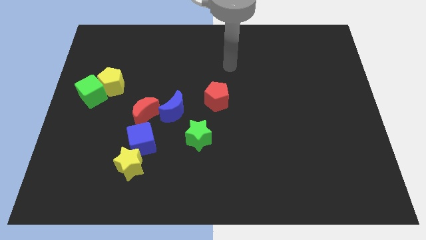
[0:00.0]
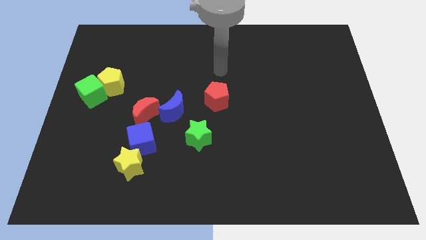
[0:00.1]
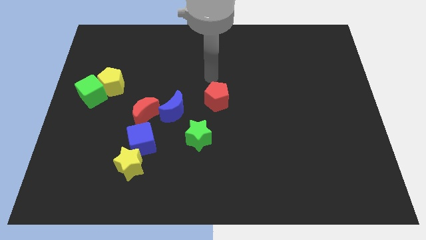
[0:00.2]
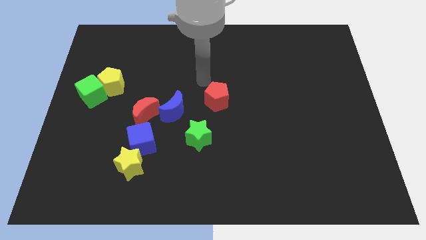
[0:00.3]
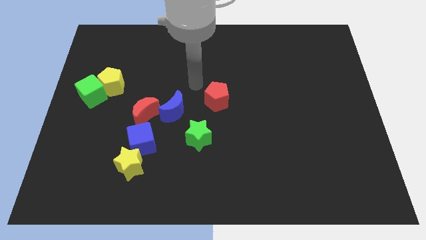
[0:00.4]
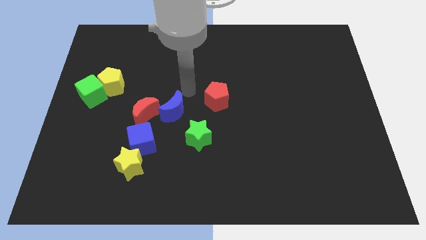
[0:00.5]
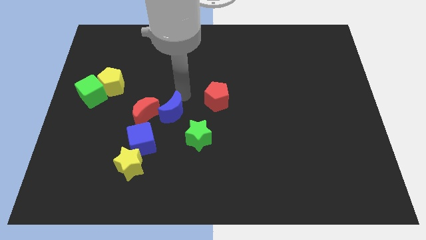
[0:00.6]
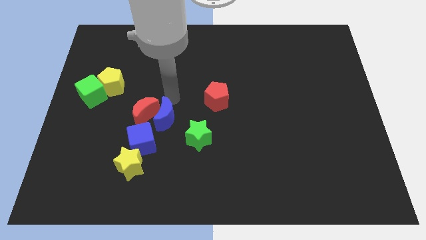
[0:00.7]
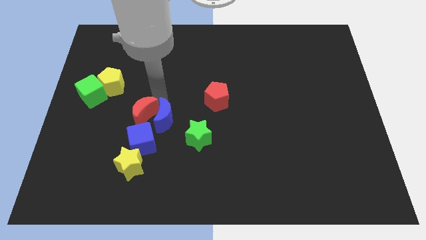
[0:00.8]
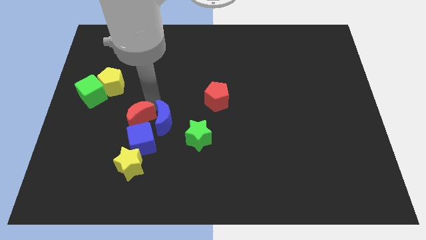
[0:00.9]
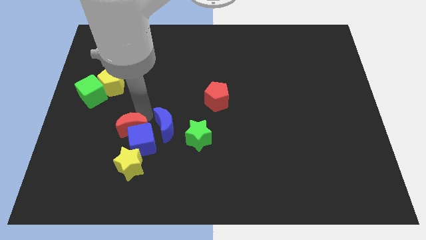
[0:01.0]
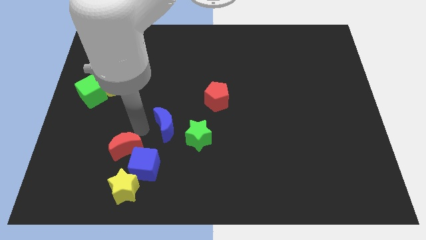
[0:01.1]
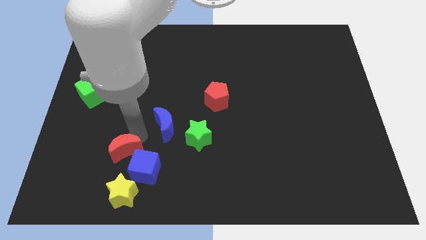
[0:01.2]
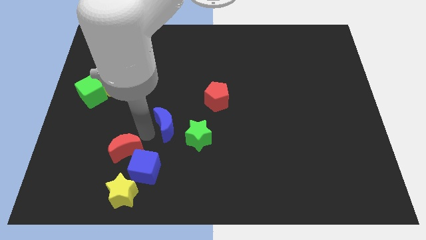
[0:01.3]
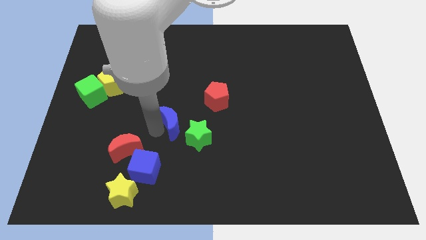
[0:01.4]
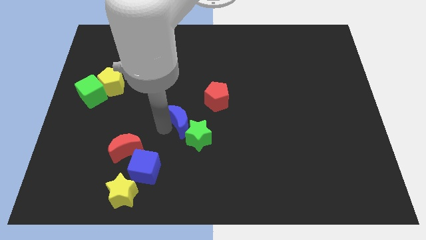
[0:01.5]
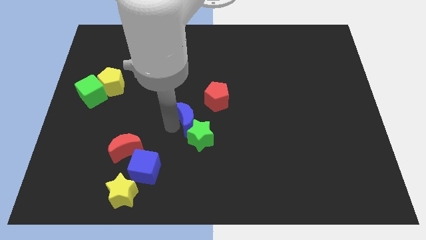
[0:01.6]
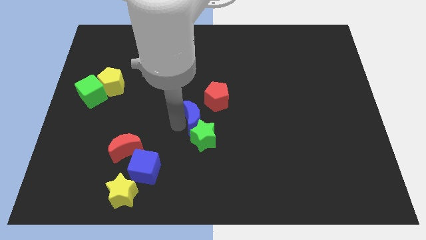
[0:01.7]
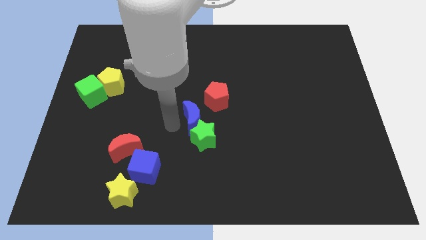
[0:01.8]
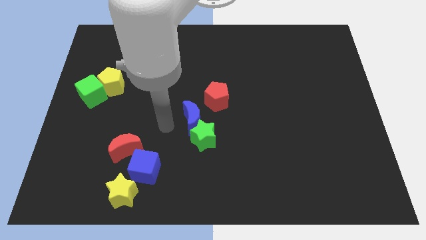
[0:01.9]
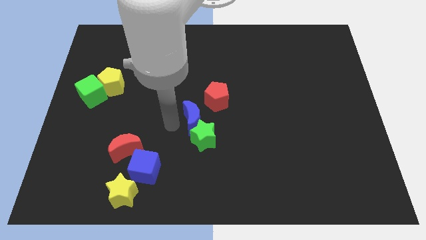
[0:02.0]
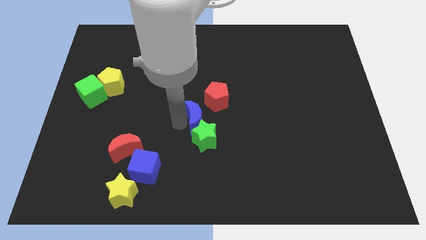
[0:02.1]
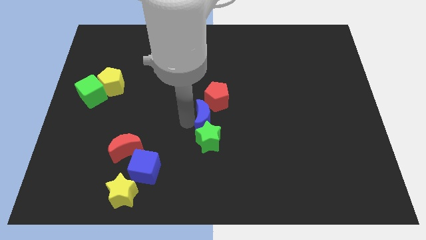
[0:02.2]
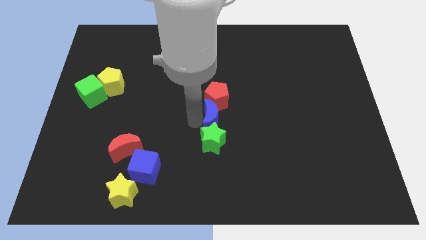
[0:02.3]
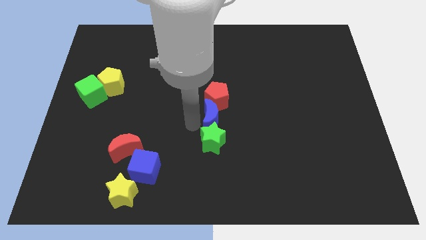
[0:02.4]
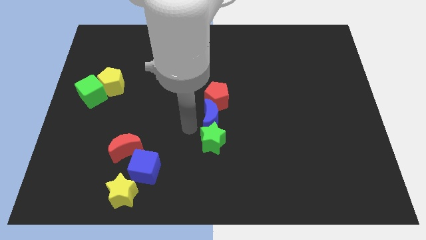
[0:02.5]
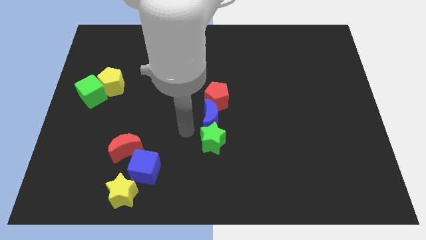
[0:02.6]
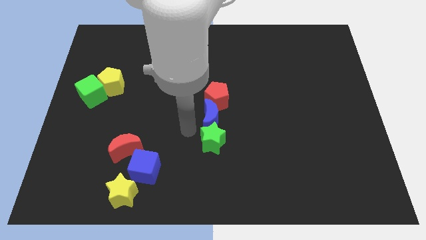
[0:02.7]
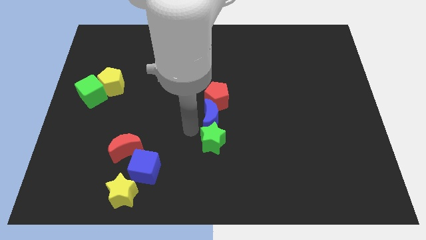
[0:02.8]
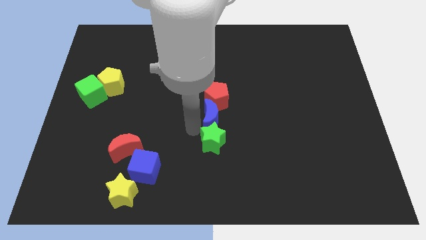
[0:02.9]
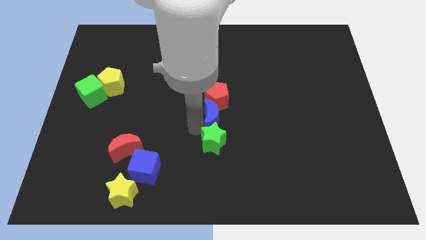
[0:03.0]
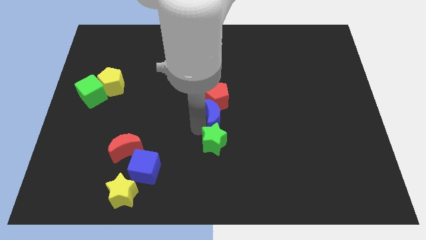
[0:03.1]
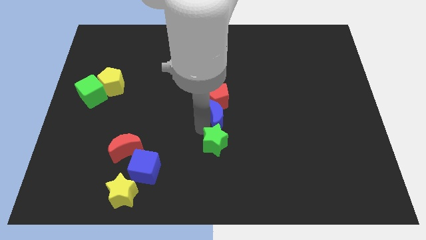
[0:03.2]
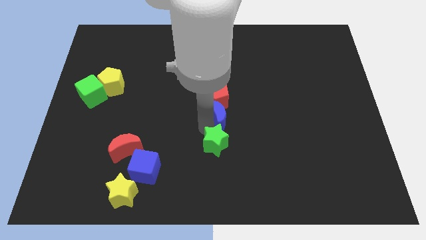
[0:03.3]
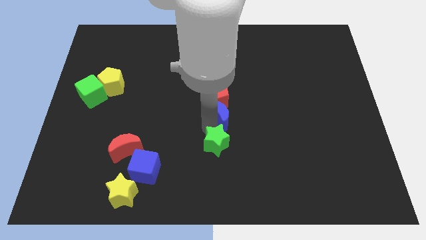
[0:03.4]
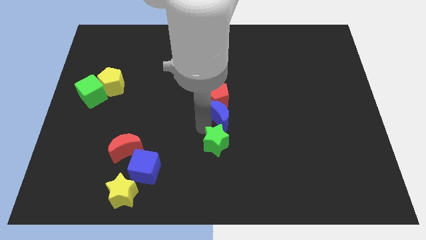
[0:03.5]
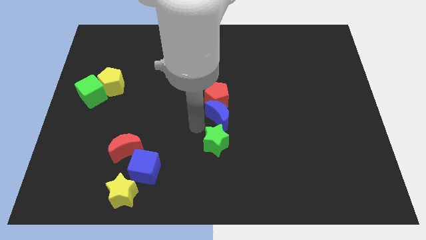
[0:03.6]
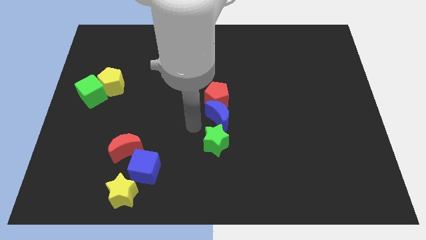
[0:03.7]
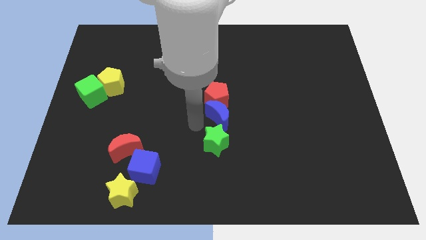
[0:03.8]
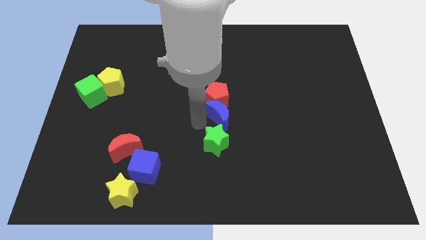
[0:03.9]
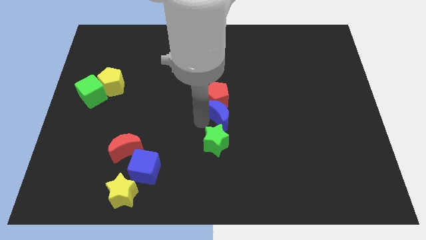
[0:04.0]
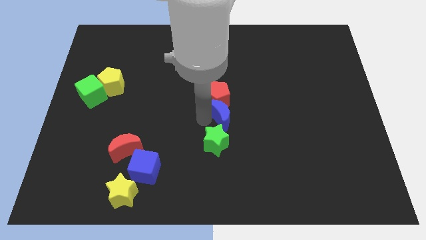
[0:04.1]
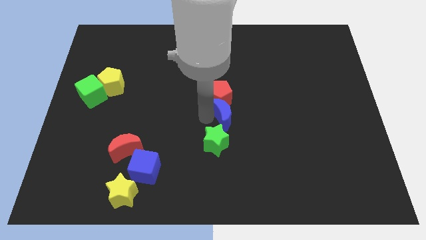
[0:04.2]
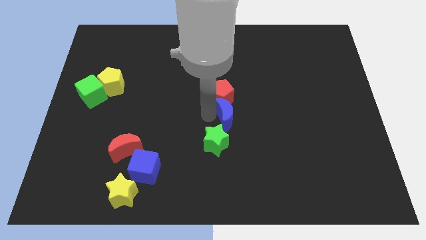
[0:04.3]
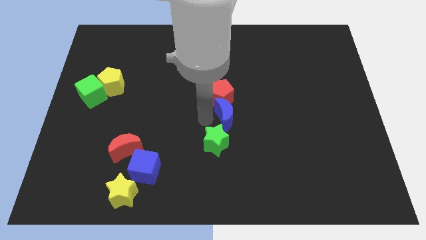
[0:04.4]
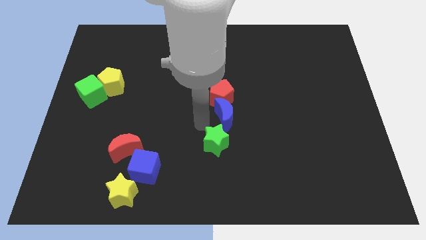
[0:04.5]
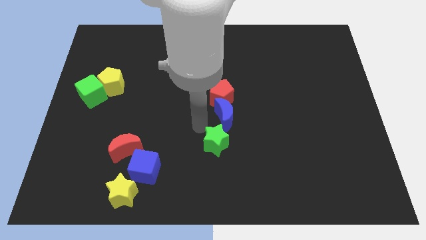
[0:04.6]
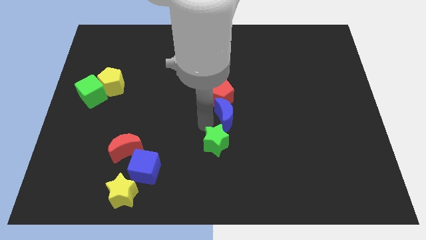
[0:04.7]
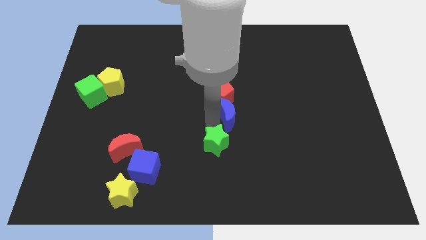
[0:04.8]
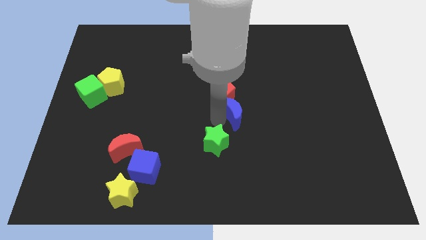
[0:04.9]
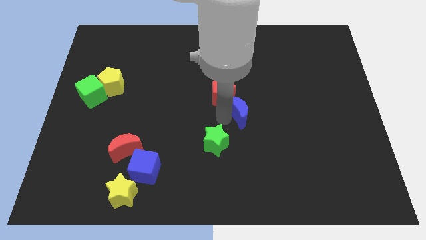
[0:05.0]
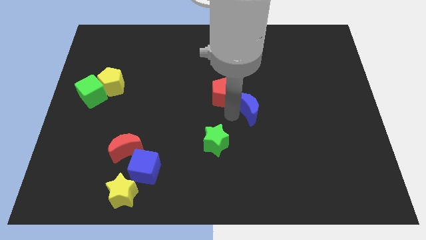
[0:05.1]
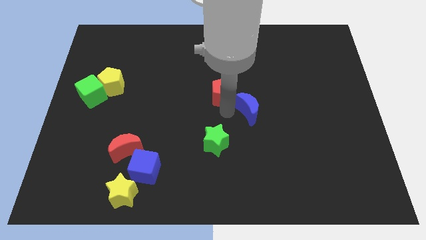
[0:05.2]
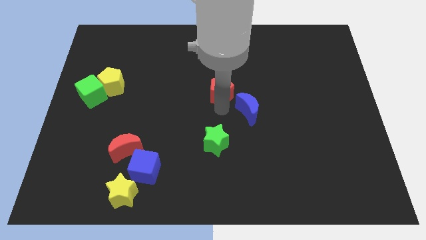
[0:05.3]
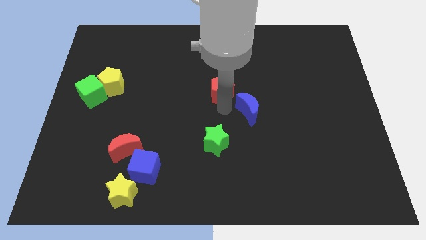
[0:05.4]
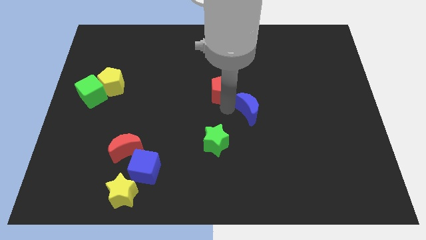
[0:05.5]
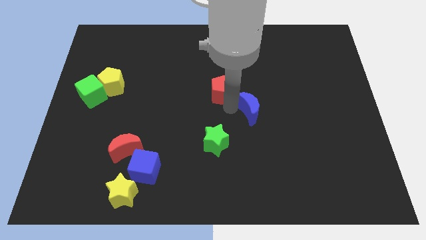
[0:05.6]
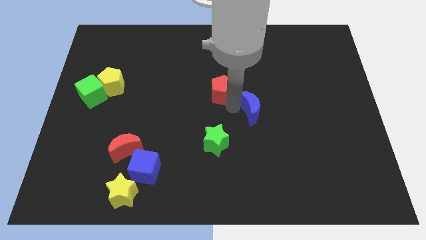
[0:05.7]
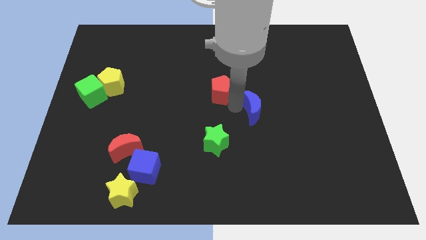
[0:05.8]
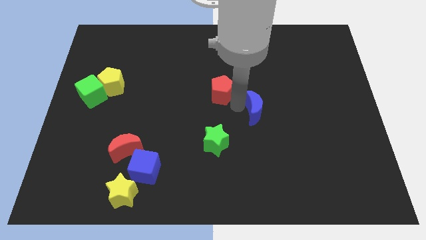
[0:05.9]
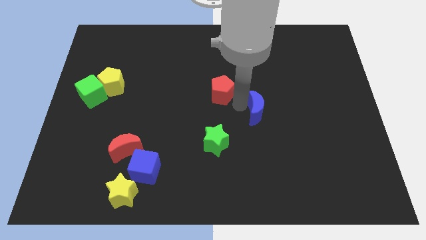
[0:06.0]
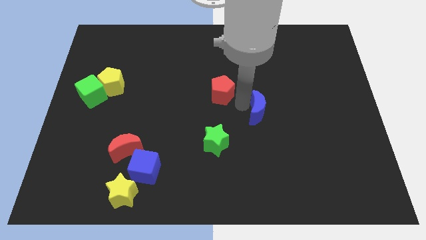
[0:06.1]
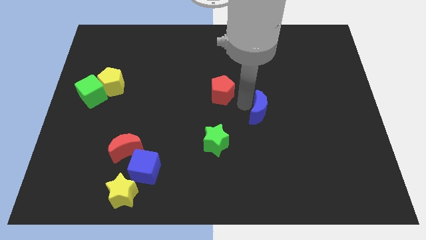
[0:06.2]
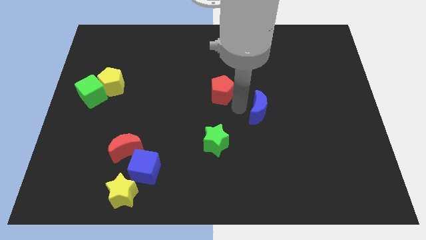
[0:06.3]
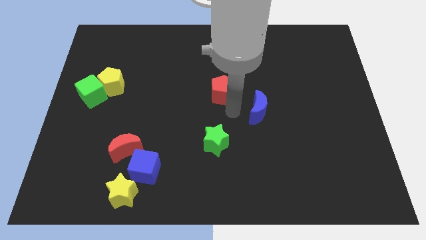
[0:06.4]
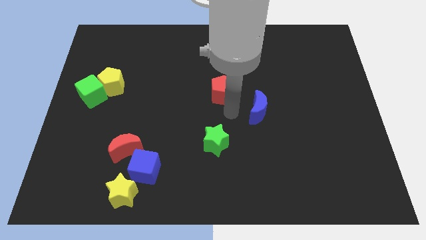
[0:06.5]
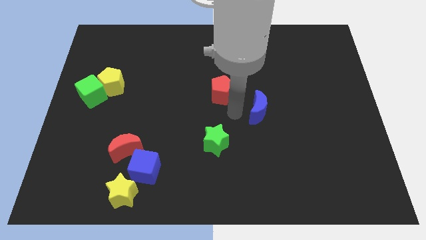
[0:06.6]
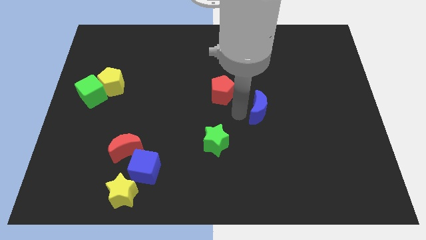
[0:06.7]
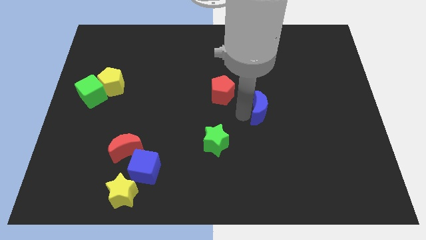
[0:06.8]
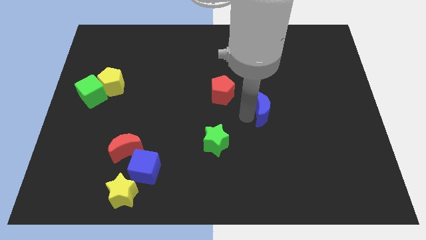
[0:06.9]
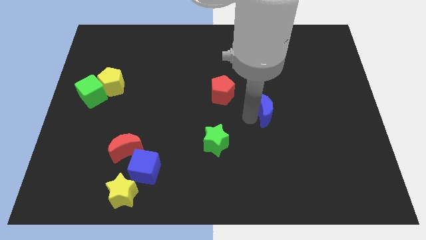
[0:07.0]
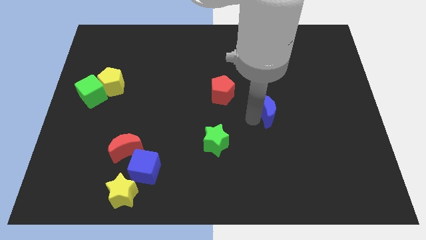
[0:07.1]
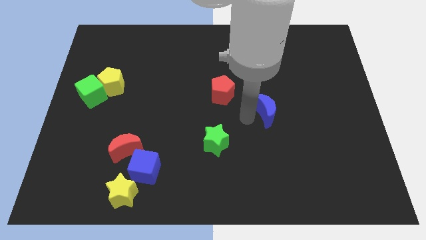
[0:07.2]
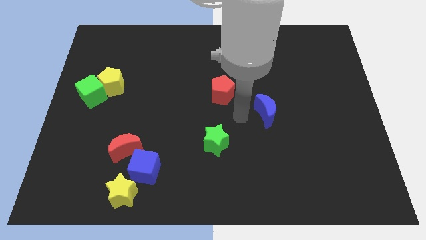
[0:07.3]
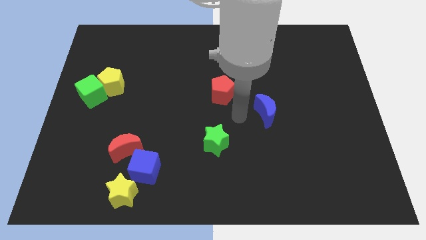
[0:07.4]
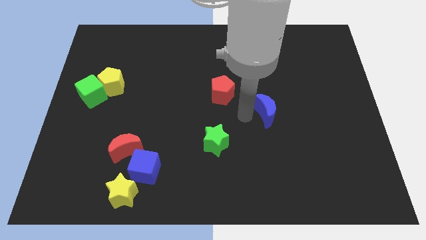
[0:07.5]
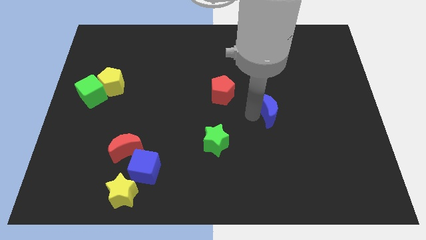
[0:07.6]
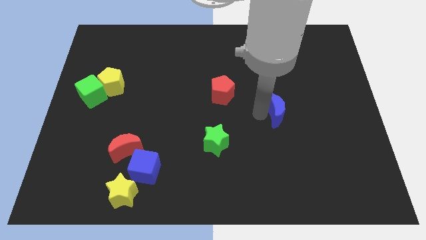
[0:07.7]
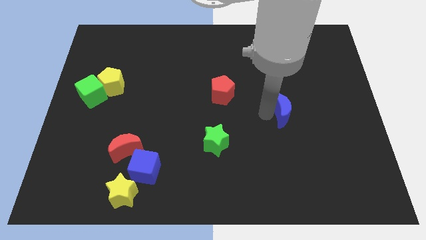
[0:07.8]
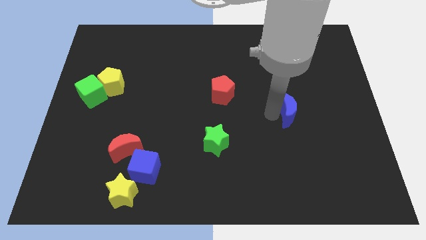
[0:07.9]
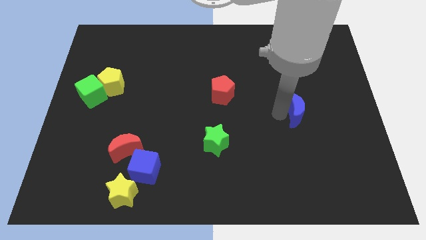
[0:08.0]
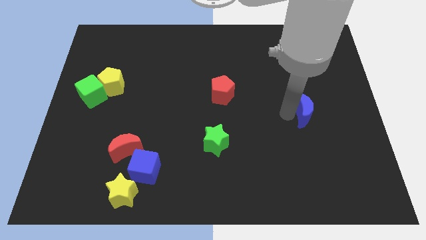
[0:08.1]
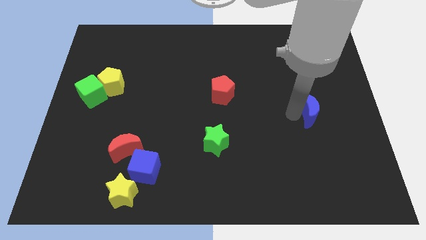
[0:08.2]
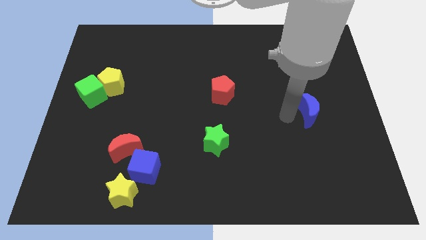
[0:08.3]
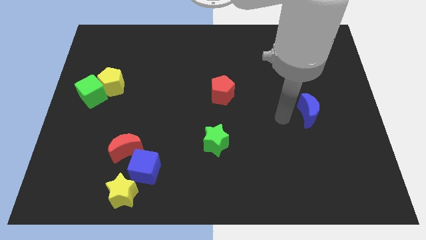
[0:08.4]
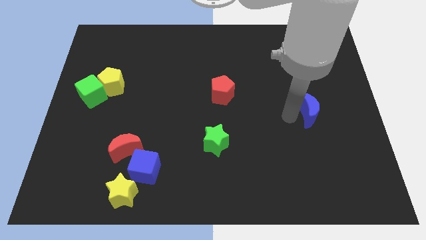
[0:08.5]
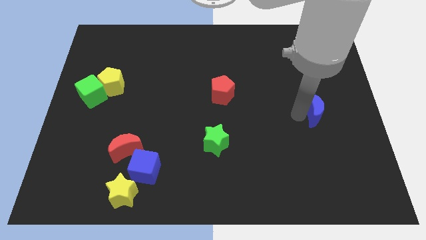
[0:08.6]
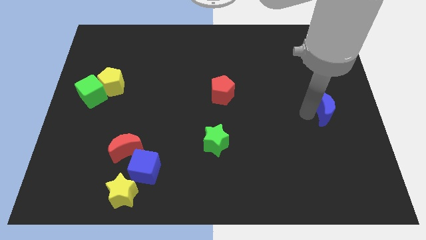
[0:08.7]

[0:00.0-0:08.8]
move the blue moon to the right side
